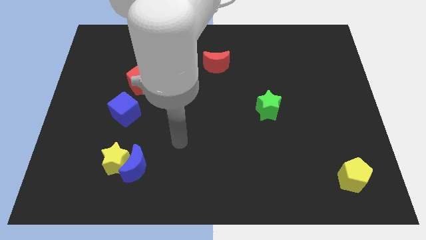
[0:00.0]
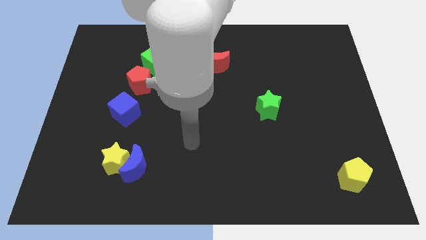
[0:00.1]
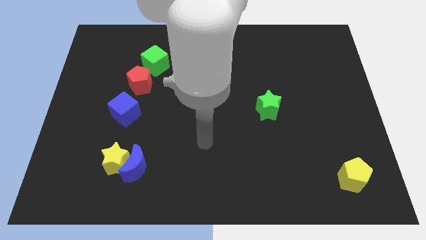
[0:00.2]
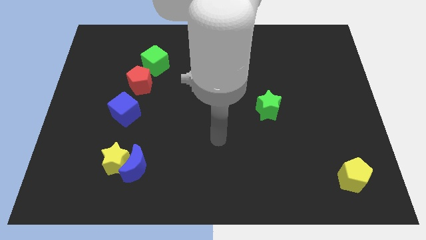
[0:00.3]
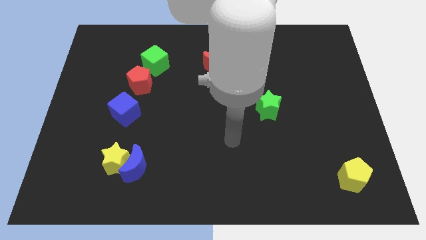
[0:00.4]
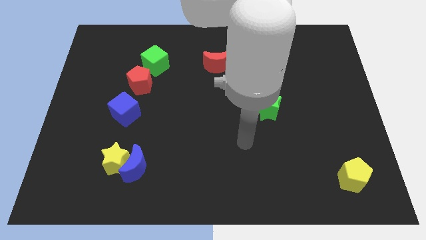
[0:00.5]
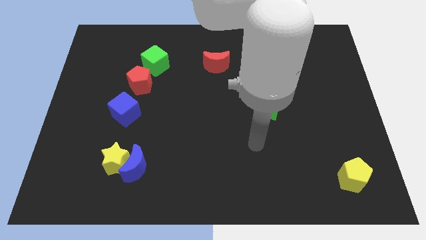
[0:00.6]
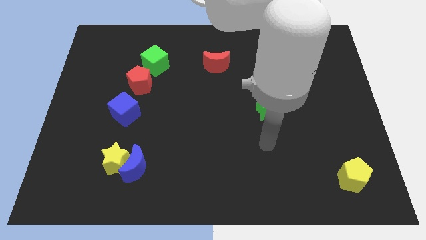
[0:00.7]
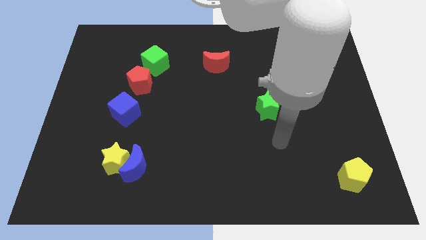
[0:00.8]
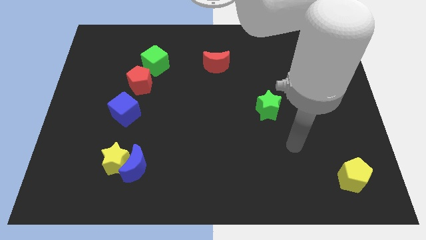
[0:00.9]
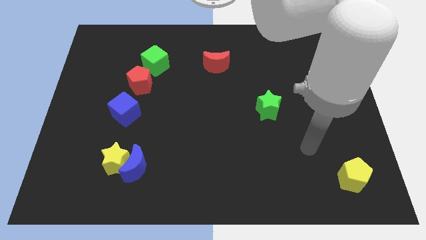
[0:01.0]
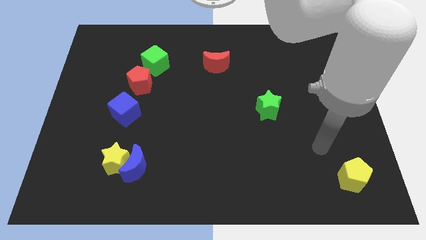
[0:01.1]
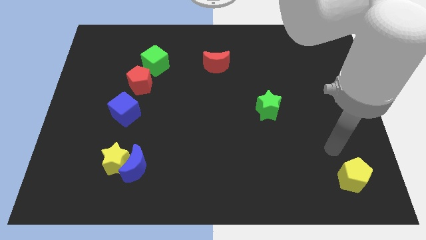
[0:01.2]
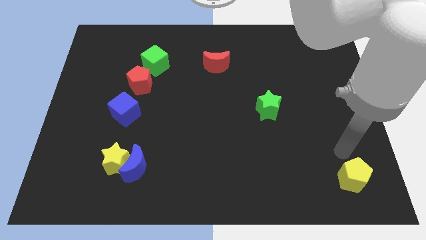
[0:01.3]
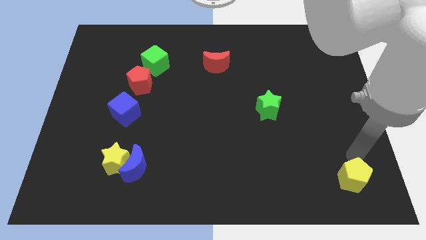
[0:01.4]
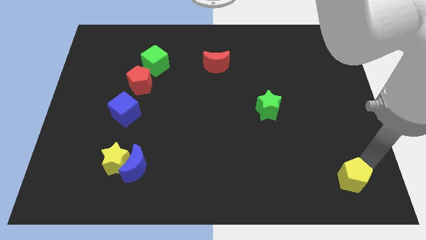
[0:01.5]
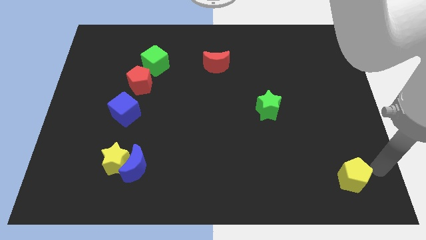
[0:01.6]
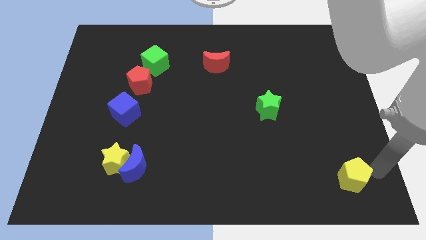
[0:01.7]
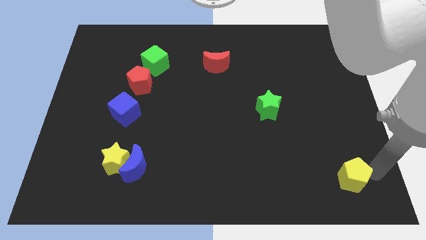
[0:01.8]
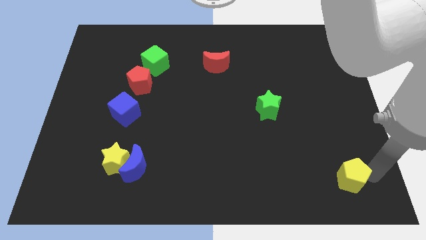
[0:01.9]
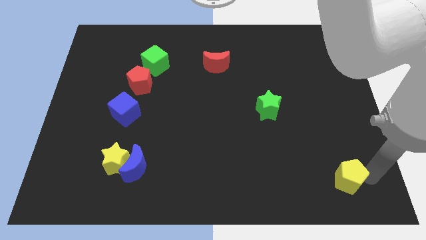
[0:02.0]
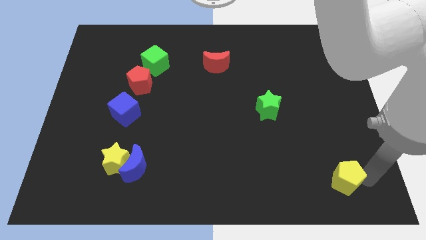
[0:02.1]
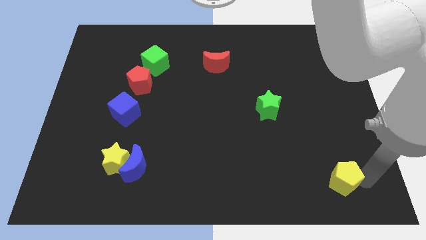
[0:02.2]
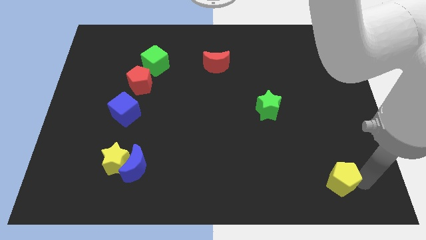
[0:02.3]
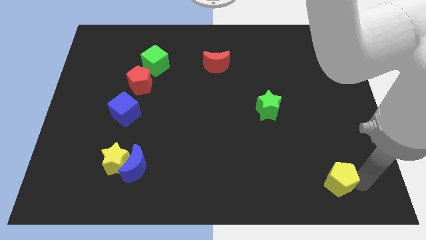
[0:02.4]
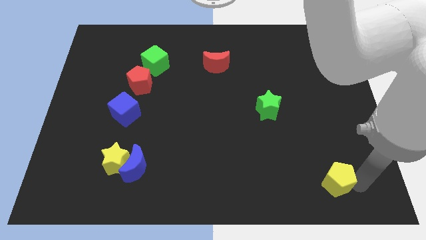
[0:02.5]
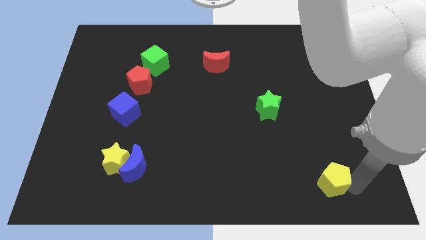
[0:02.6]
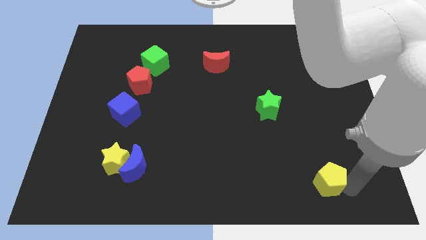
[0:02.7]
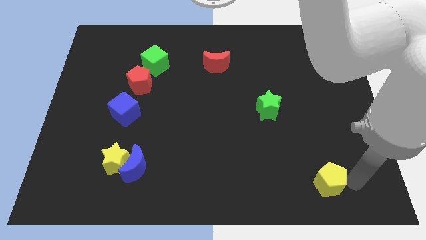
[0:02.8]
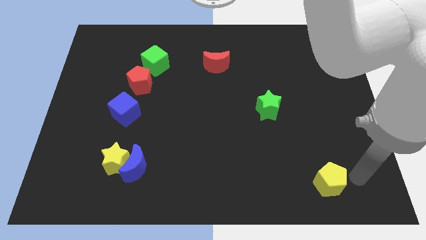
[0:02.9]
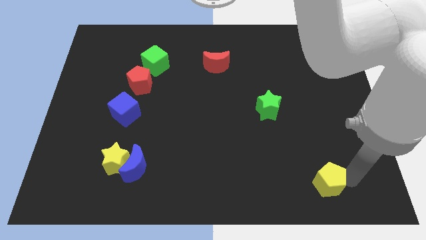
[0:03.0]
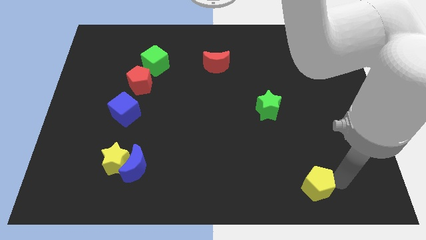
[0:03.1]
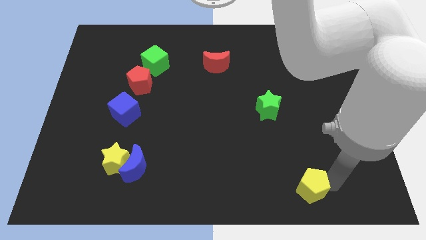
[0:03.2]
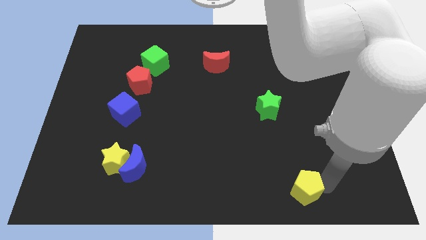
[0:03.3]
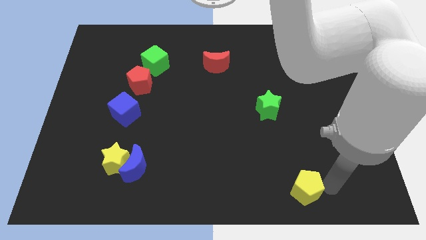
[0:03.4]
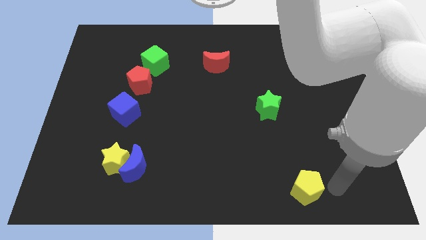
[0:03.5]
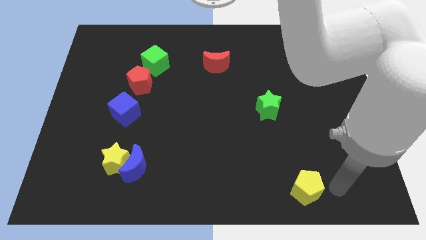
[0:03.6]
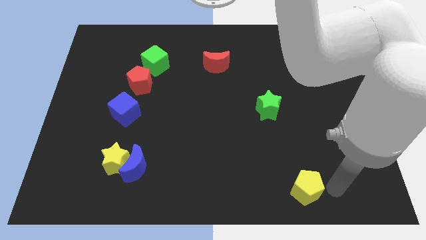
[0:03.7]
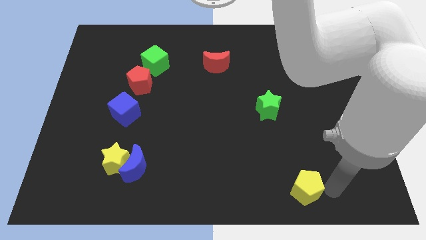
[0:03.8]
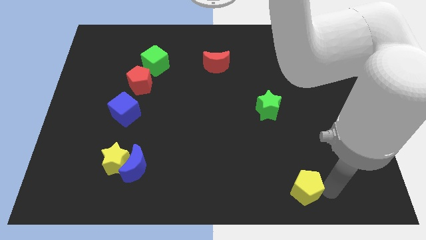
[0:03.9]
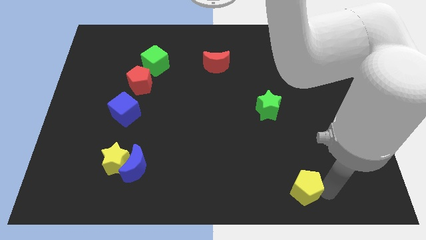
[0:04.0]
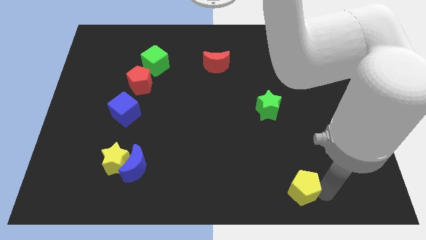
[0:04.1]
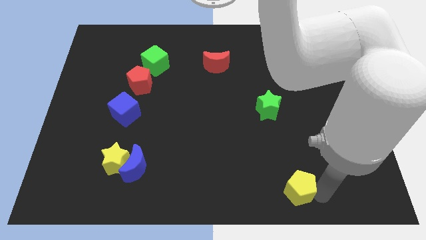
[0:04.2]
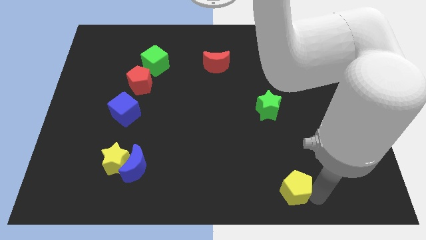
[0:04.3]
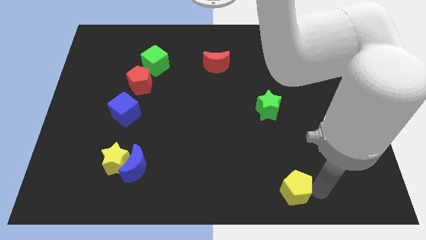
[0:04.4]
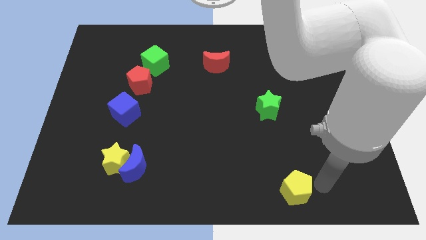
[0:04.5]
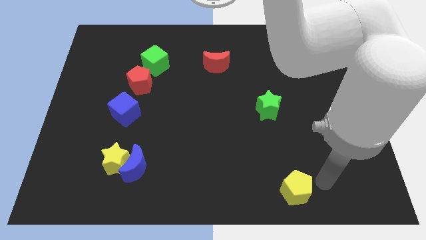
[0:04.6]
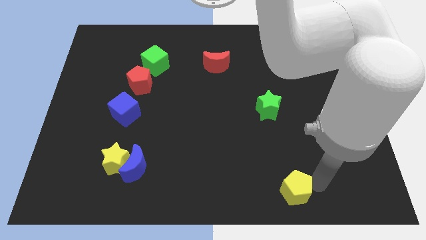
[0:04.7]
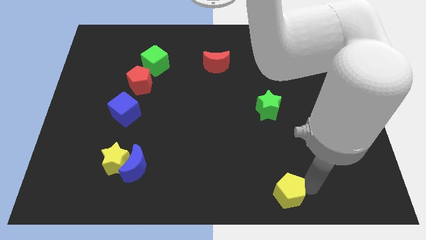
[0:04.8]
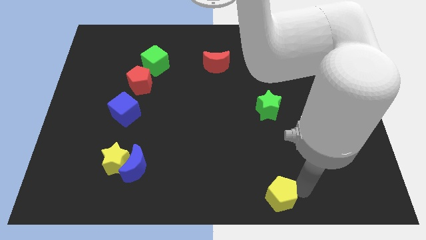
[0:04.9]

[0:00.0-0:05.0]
slide the yellow pentagon to the bottom

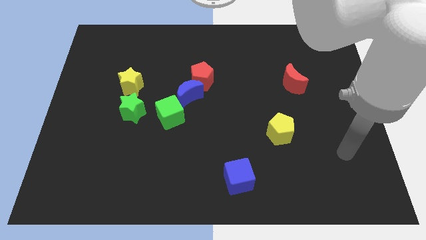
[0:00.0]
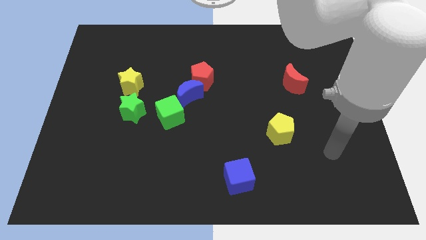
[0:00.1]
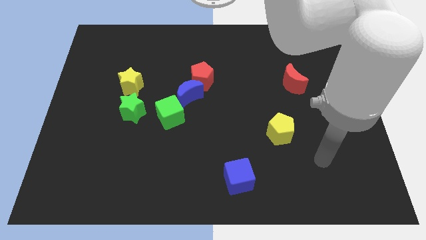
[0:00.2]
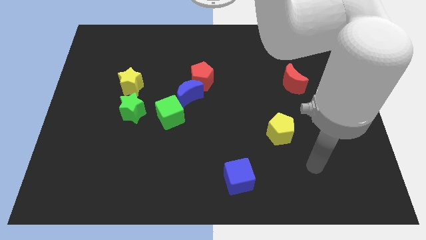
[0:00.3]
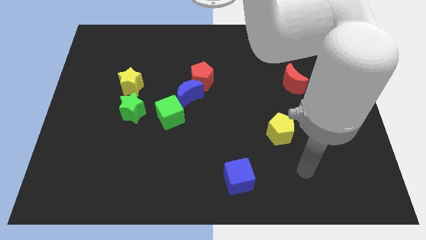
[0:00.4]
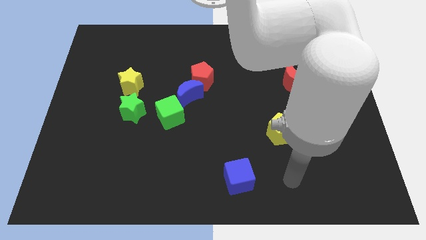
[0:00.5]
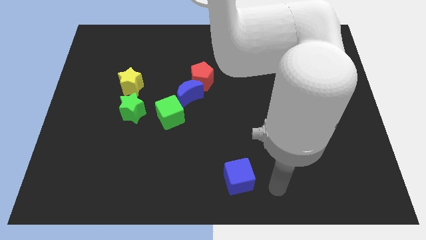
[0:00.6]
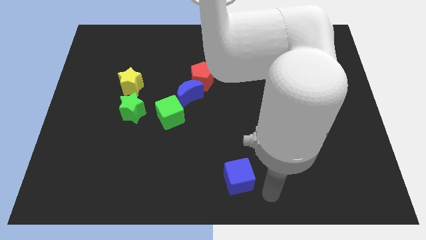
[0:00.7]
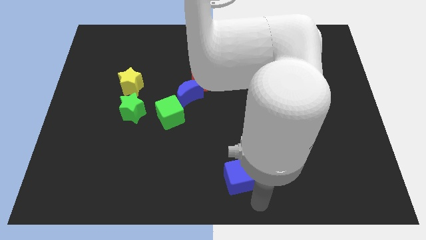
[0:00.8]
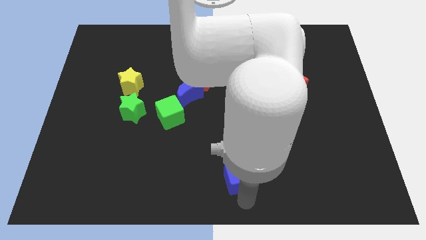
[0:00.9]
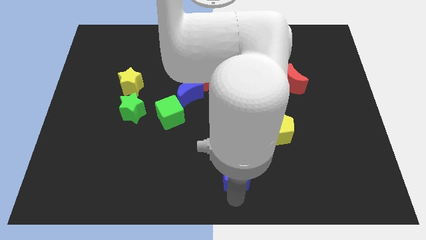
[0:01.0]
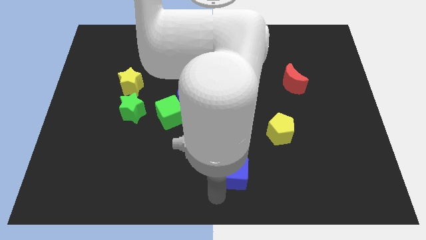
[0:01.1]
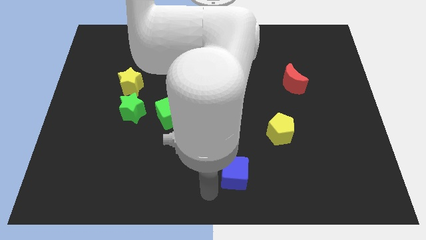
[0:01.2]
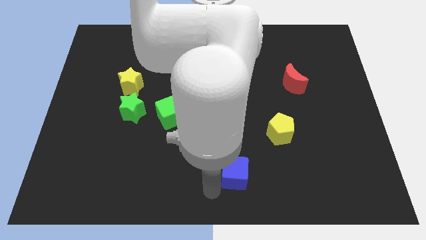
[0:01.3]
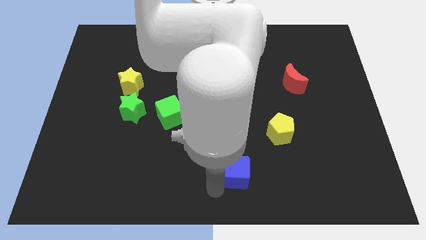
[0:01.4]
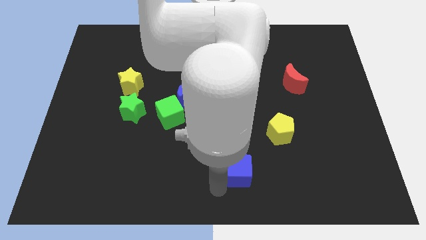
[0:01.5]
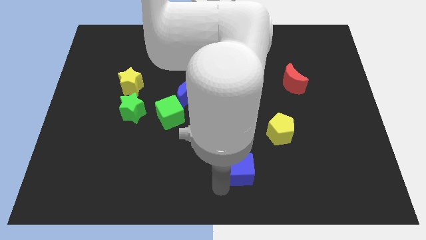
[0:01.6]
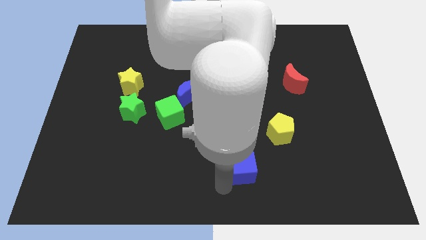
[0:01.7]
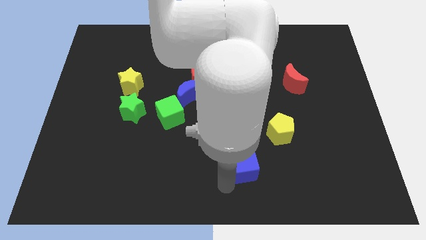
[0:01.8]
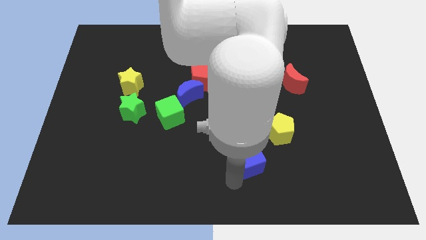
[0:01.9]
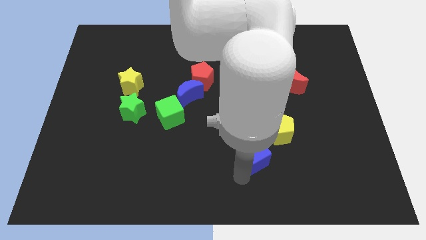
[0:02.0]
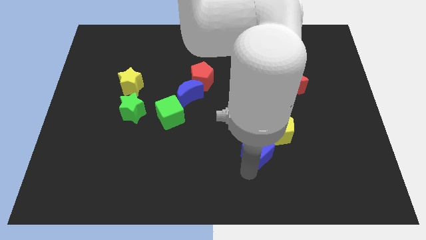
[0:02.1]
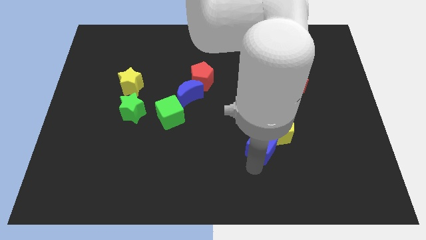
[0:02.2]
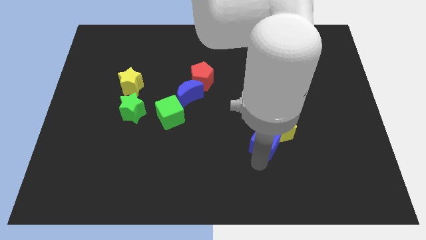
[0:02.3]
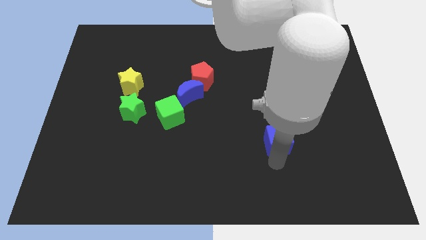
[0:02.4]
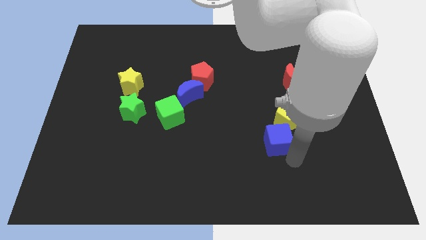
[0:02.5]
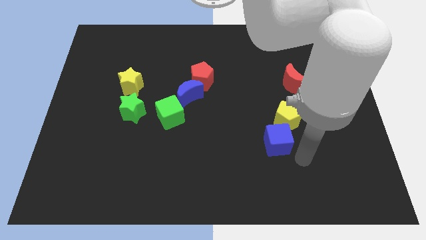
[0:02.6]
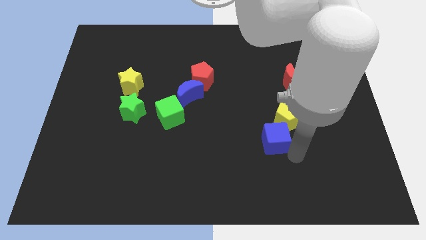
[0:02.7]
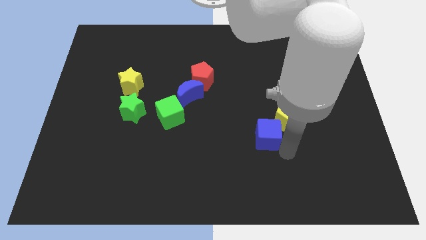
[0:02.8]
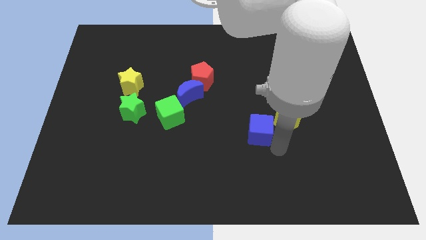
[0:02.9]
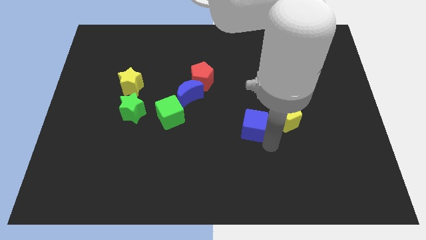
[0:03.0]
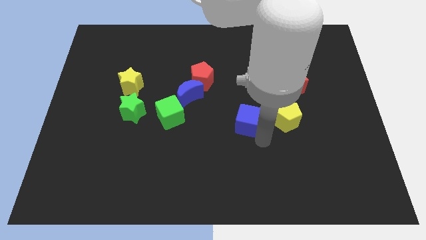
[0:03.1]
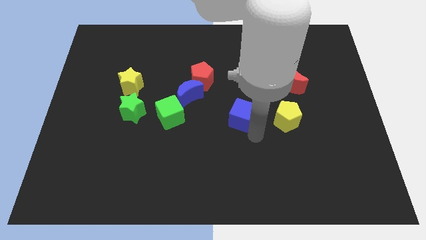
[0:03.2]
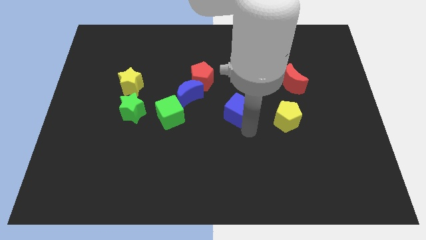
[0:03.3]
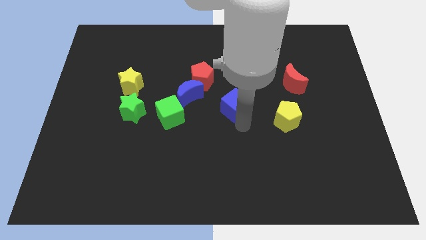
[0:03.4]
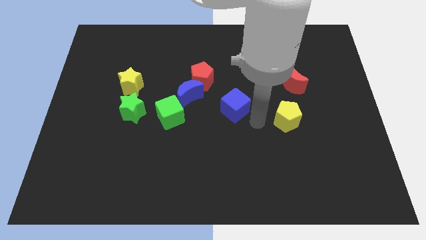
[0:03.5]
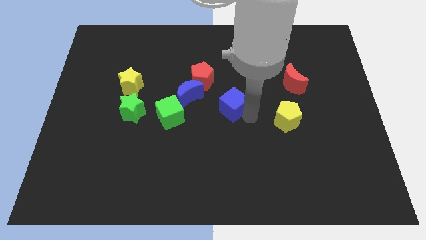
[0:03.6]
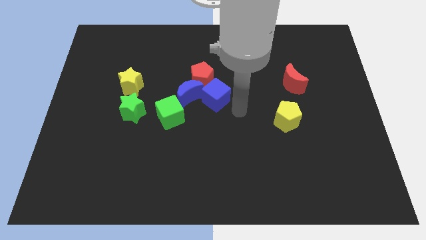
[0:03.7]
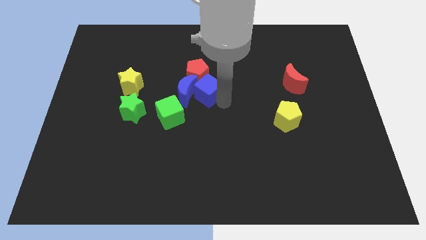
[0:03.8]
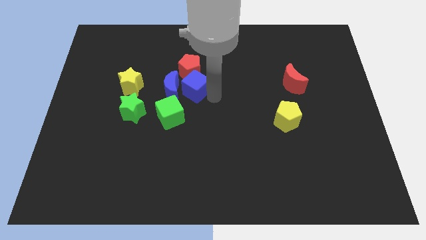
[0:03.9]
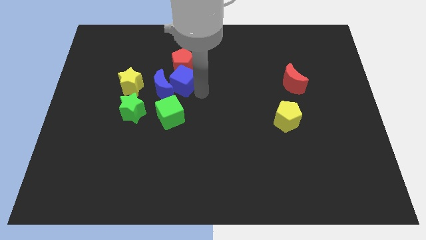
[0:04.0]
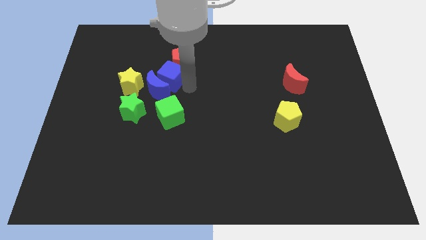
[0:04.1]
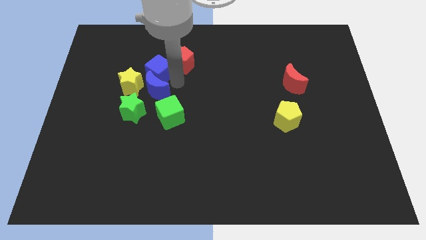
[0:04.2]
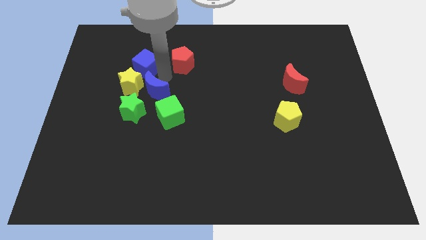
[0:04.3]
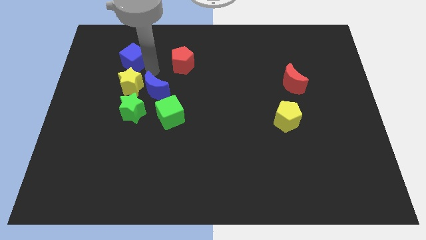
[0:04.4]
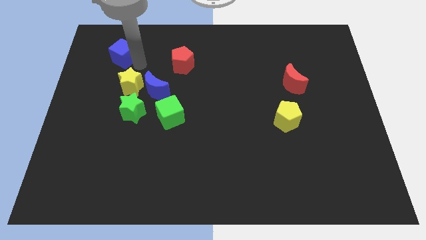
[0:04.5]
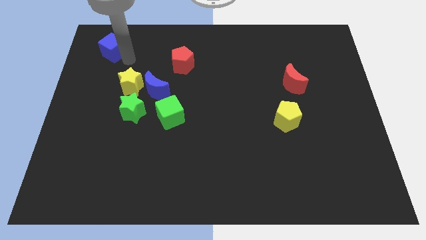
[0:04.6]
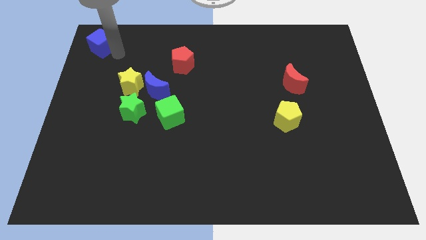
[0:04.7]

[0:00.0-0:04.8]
move the blue cube to the upper left corner
